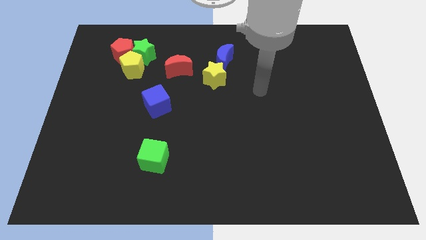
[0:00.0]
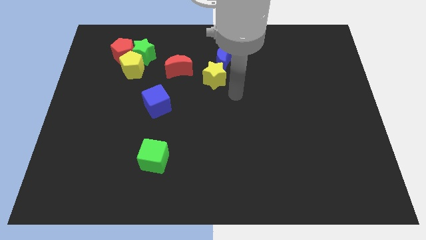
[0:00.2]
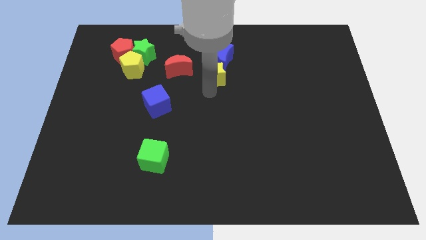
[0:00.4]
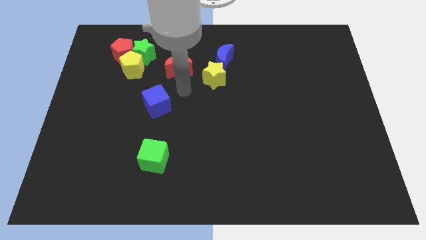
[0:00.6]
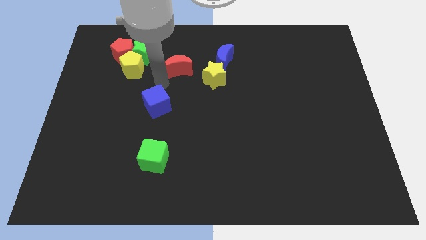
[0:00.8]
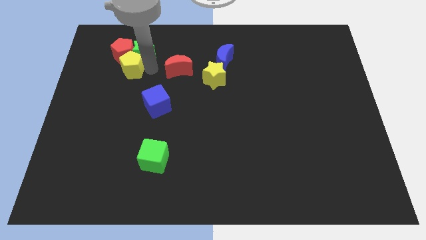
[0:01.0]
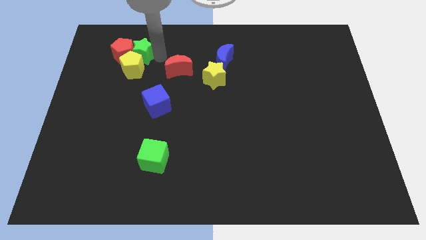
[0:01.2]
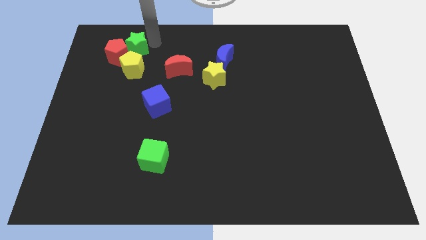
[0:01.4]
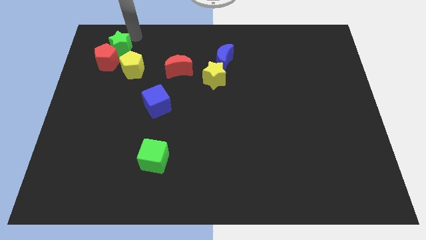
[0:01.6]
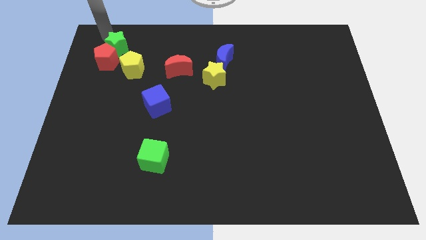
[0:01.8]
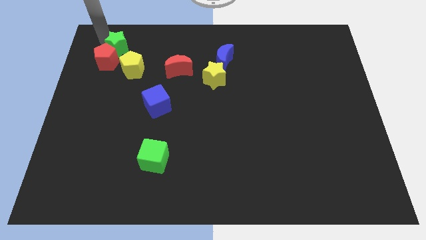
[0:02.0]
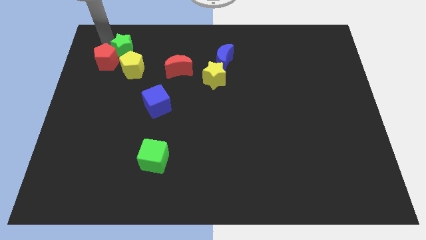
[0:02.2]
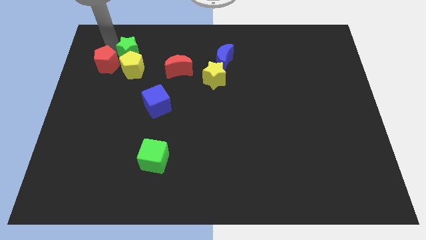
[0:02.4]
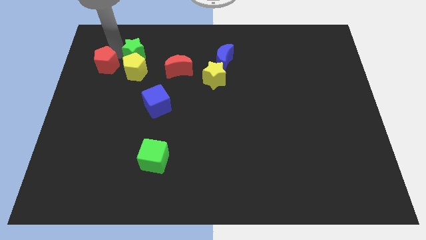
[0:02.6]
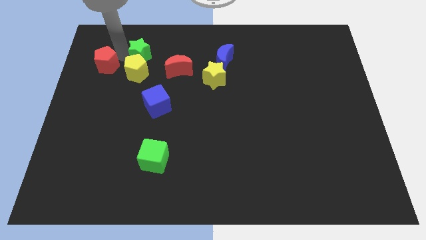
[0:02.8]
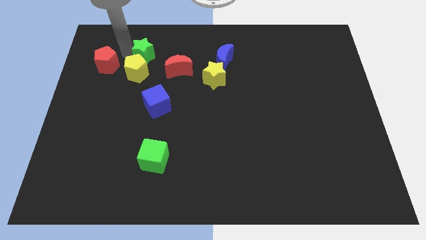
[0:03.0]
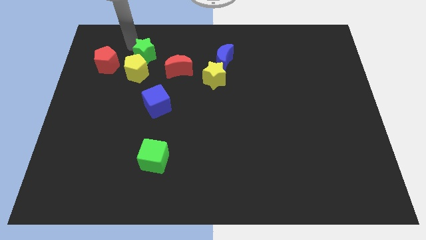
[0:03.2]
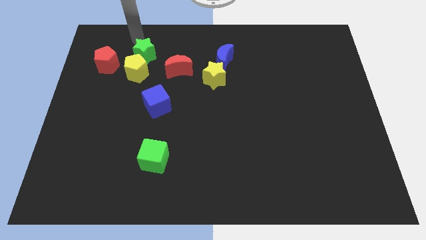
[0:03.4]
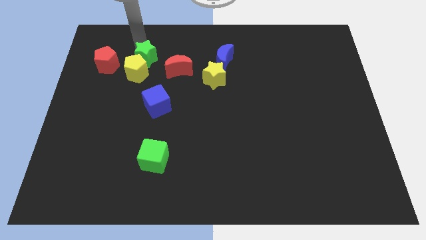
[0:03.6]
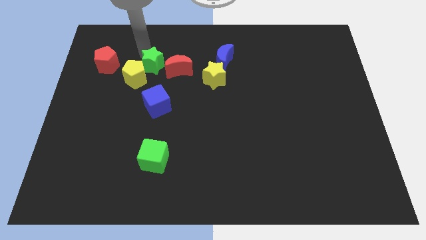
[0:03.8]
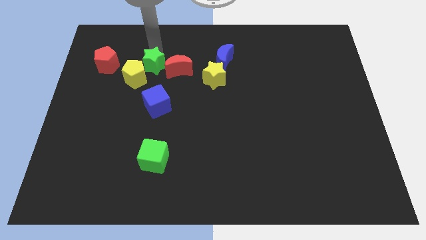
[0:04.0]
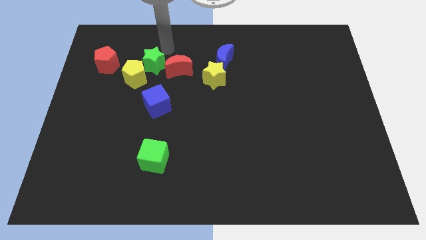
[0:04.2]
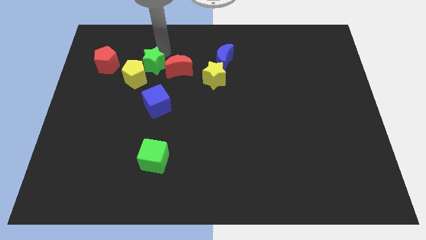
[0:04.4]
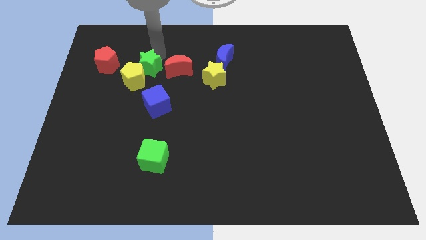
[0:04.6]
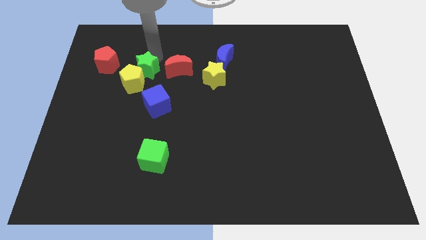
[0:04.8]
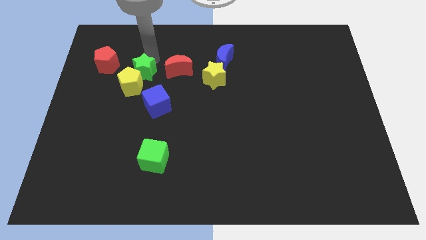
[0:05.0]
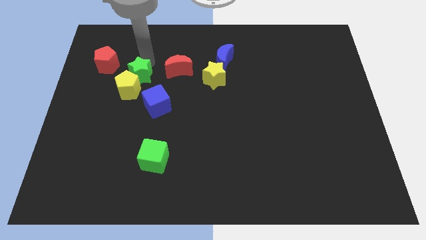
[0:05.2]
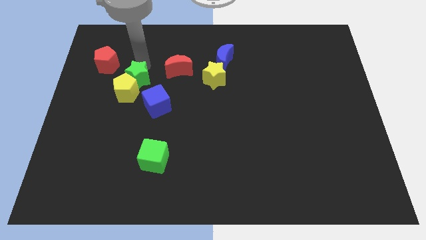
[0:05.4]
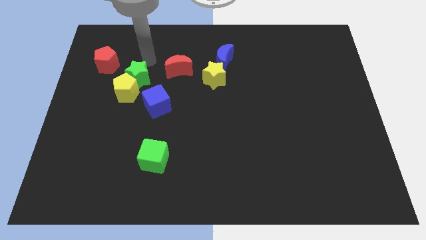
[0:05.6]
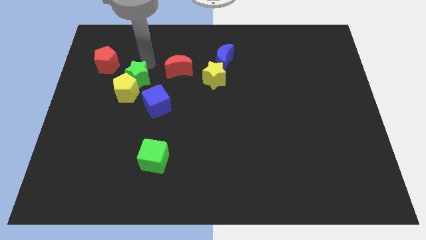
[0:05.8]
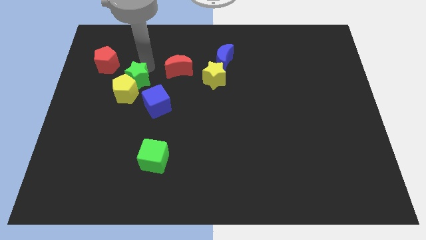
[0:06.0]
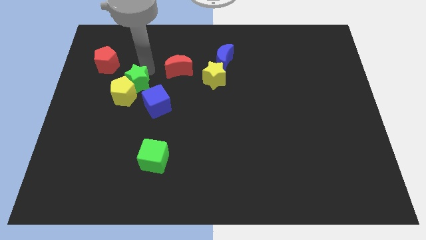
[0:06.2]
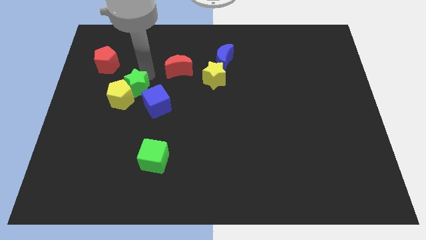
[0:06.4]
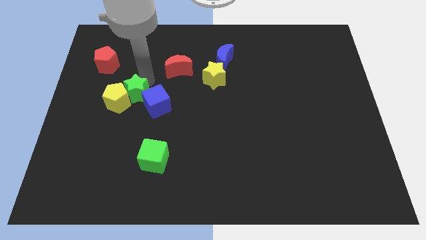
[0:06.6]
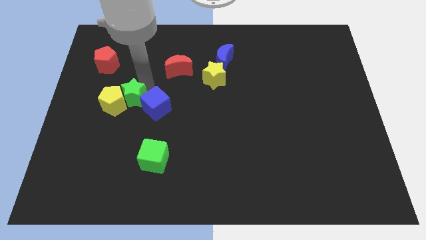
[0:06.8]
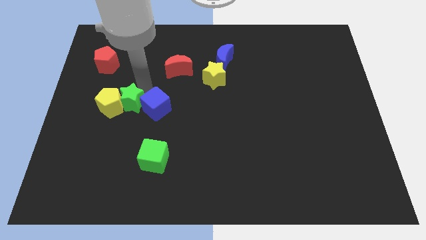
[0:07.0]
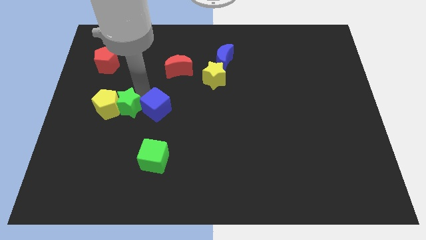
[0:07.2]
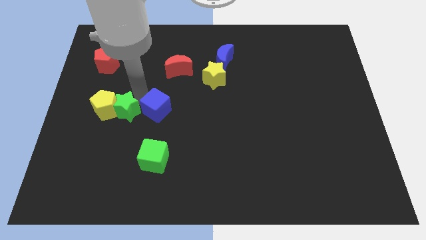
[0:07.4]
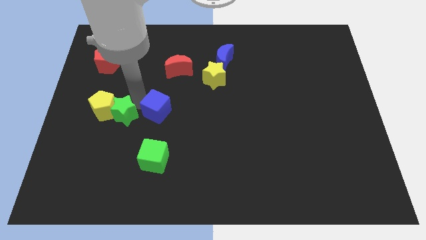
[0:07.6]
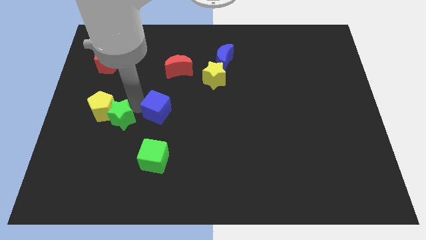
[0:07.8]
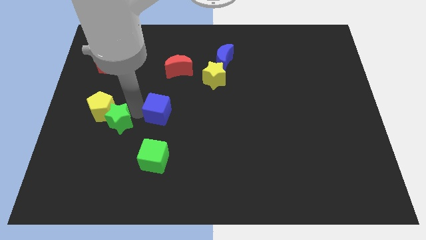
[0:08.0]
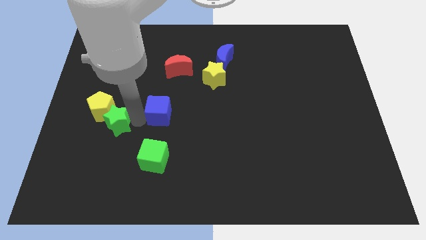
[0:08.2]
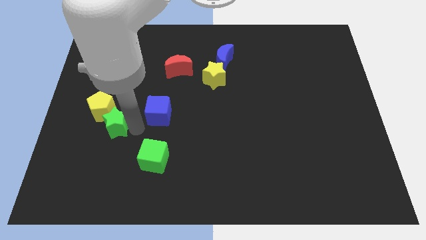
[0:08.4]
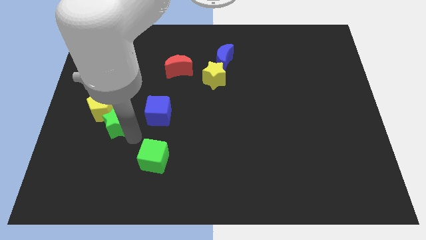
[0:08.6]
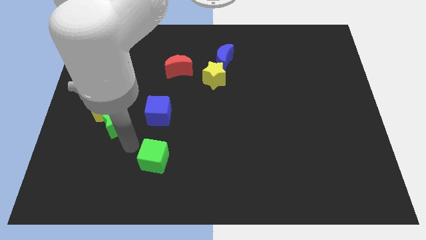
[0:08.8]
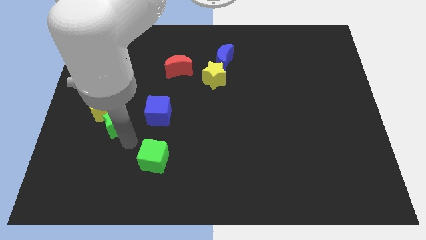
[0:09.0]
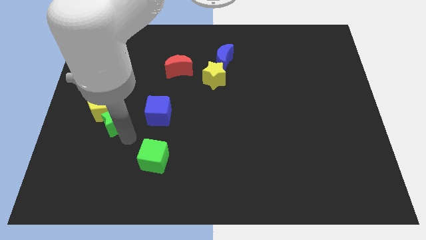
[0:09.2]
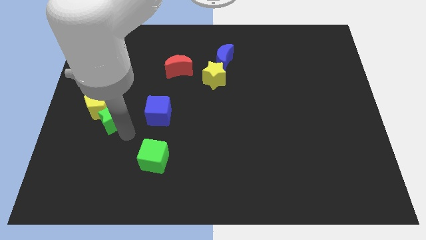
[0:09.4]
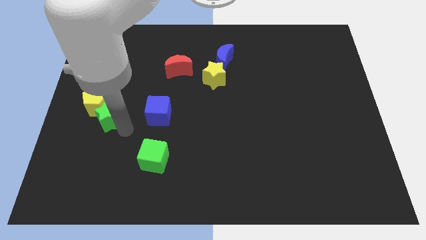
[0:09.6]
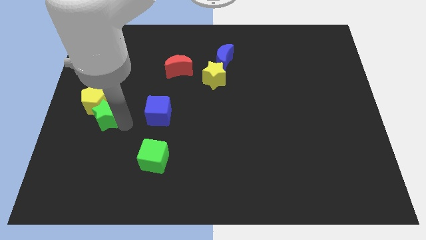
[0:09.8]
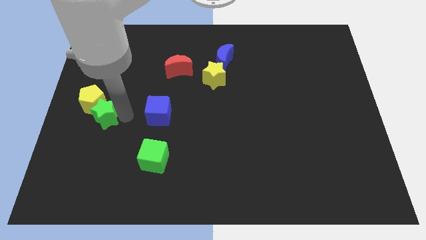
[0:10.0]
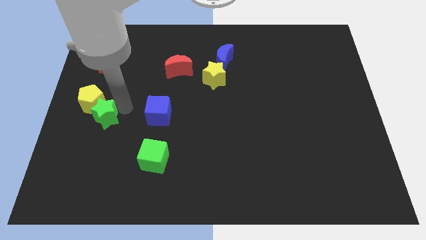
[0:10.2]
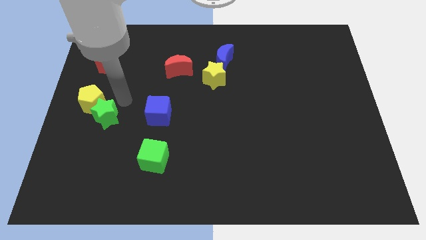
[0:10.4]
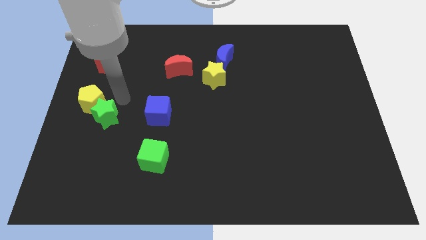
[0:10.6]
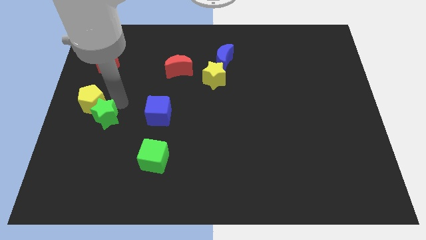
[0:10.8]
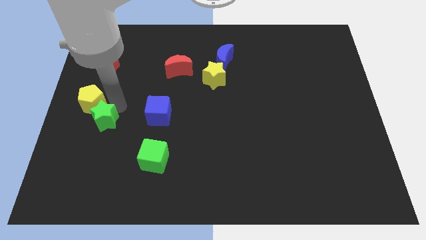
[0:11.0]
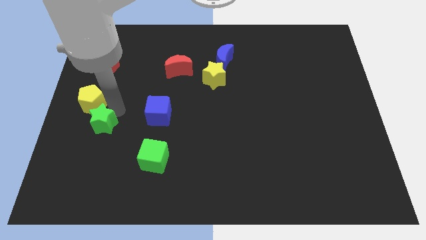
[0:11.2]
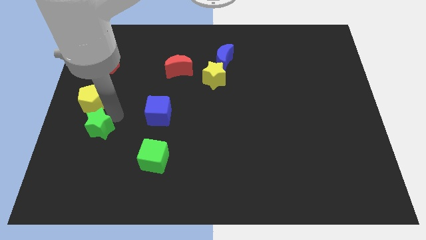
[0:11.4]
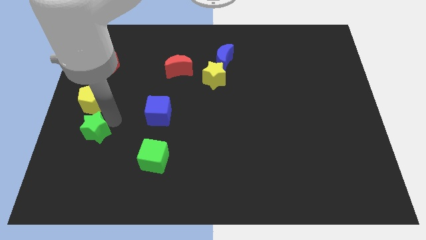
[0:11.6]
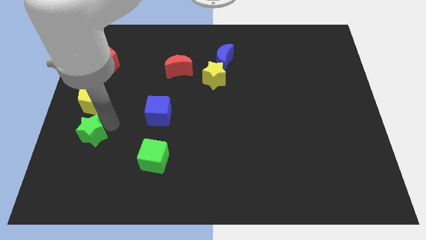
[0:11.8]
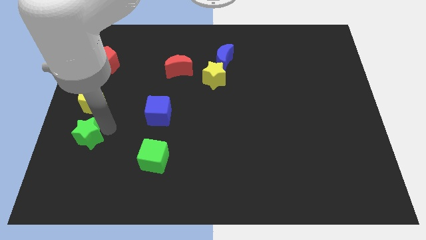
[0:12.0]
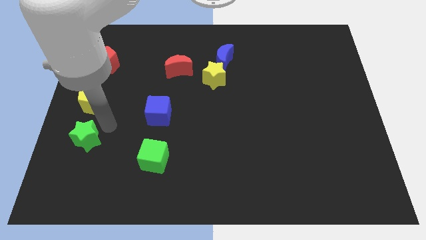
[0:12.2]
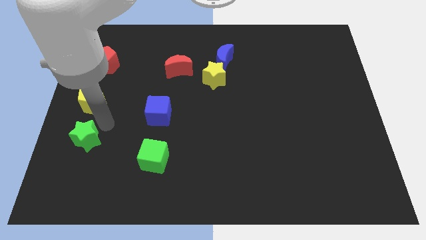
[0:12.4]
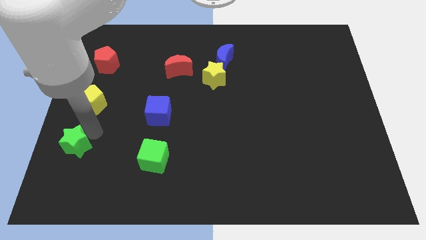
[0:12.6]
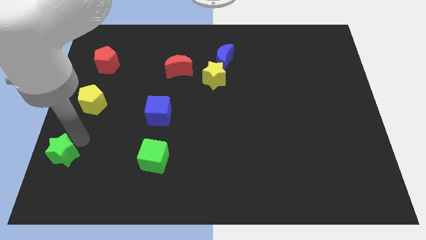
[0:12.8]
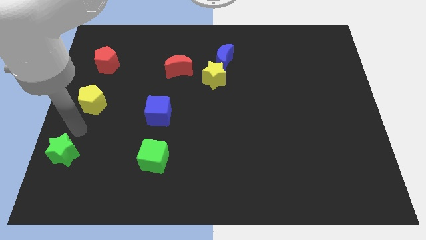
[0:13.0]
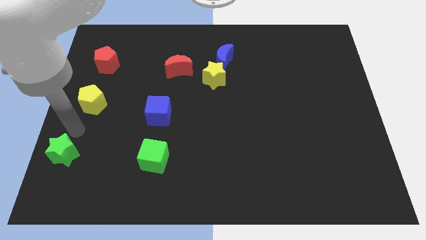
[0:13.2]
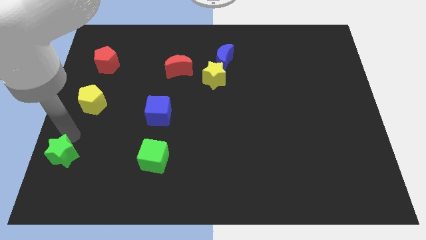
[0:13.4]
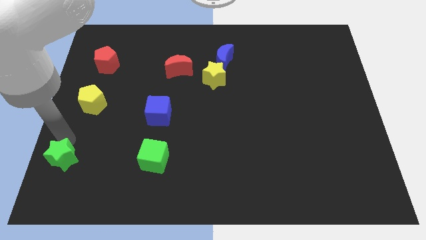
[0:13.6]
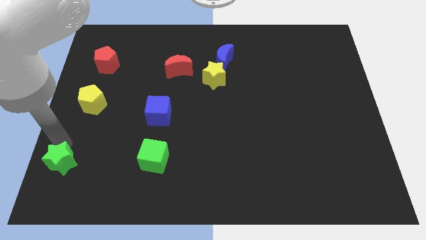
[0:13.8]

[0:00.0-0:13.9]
move the green star to the bottom left of the board
